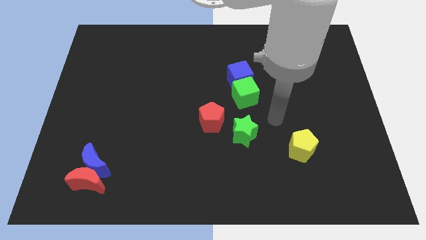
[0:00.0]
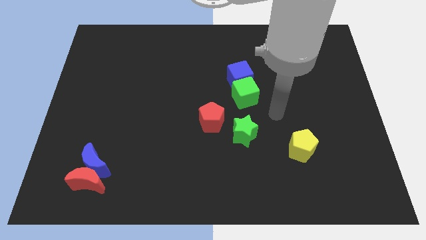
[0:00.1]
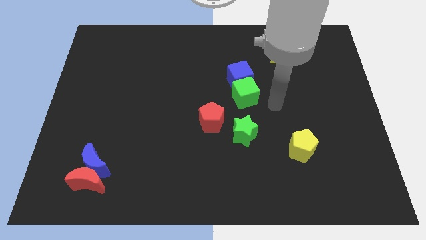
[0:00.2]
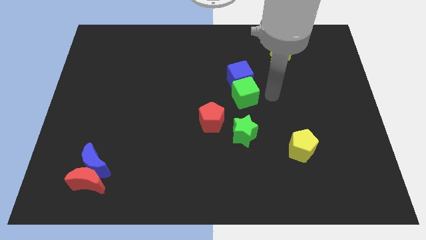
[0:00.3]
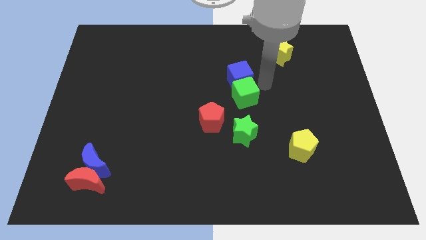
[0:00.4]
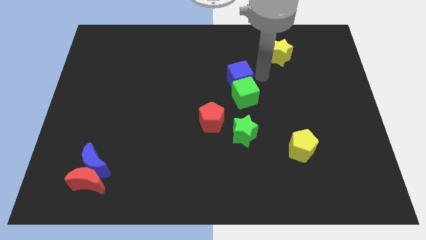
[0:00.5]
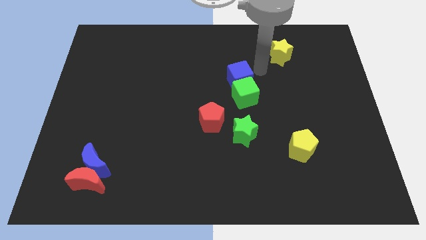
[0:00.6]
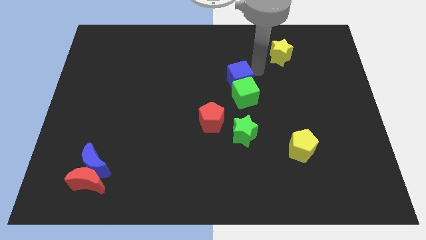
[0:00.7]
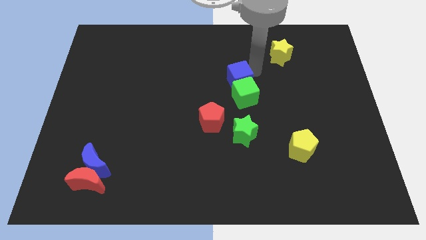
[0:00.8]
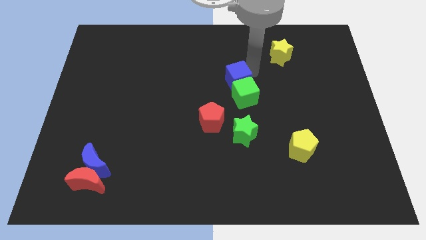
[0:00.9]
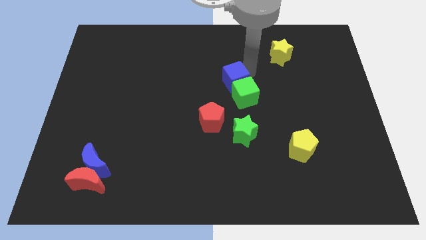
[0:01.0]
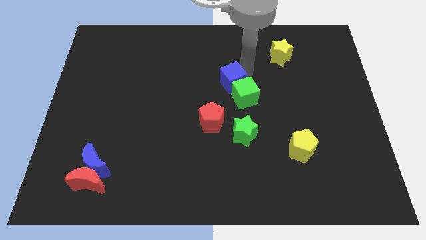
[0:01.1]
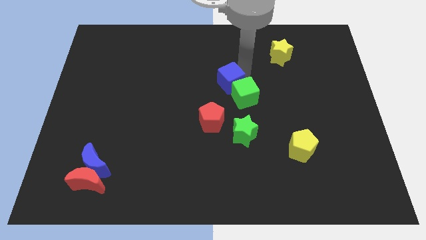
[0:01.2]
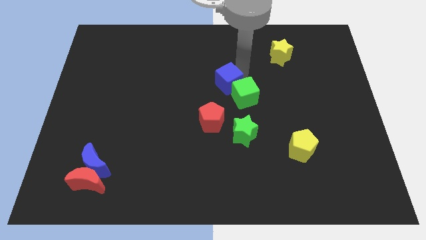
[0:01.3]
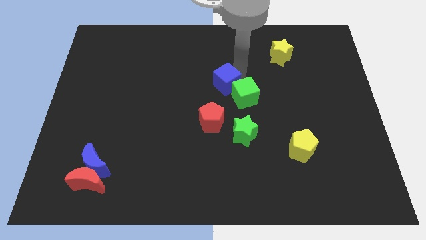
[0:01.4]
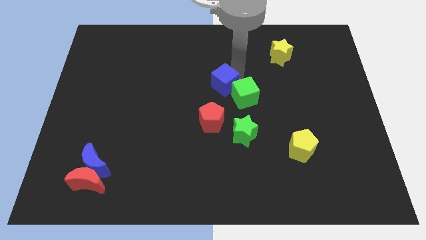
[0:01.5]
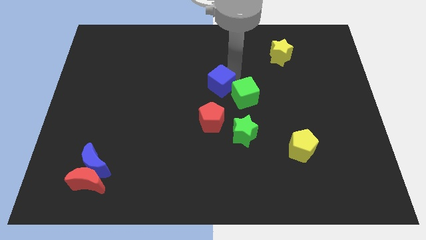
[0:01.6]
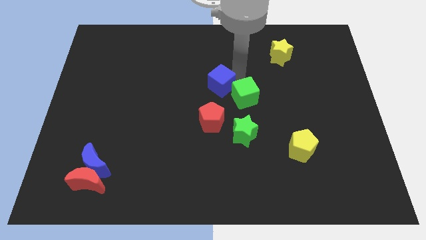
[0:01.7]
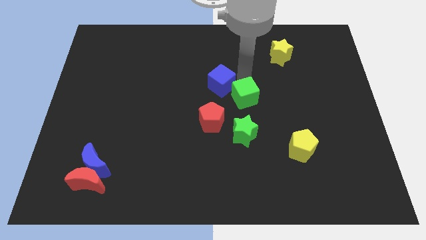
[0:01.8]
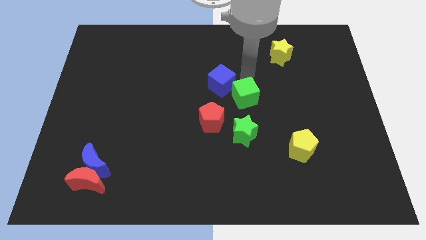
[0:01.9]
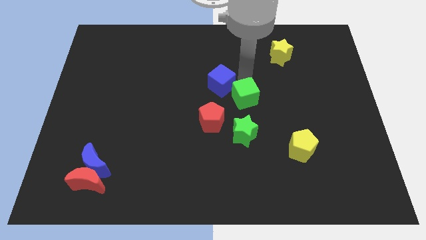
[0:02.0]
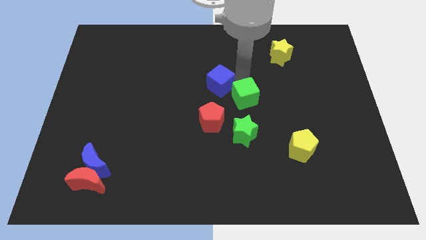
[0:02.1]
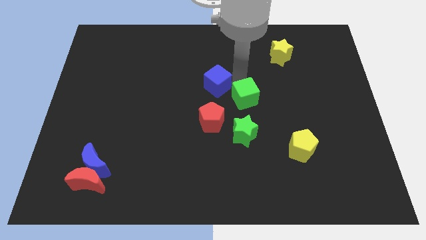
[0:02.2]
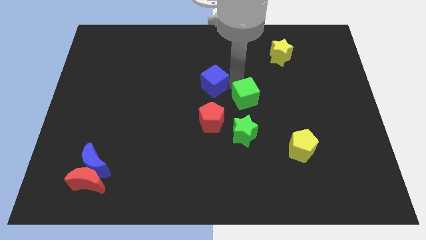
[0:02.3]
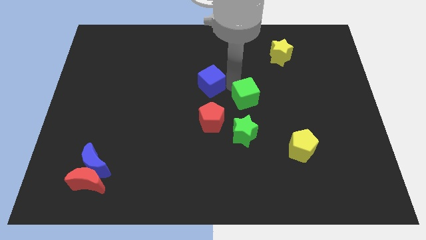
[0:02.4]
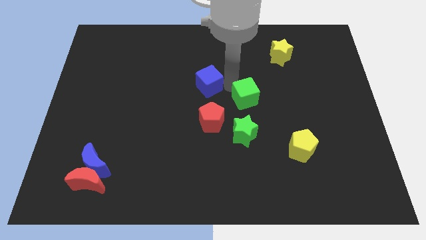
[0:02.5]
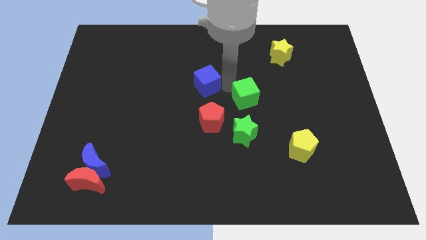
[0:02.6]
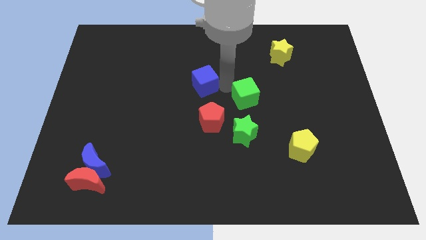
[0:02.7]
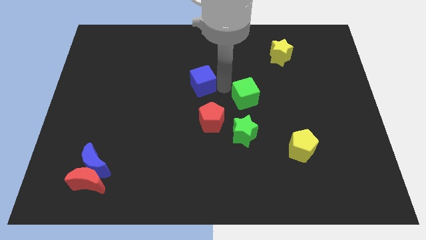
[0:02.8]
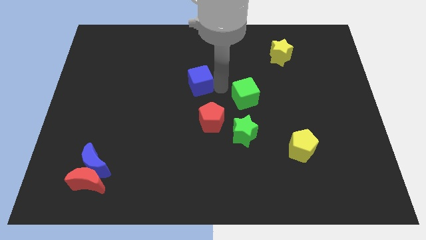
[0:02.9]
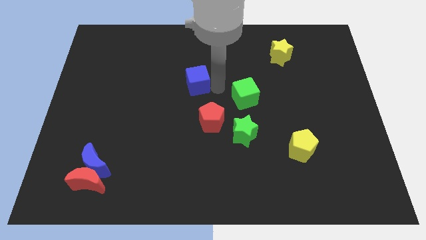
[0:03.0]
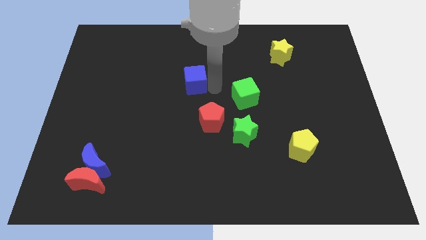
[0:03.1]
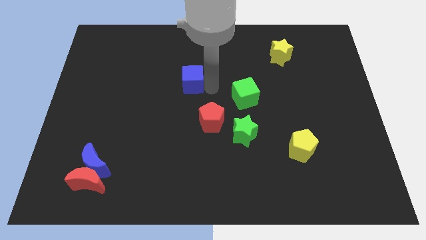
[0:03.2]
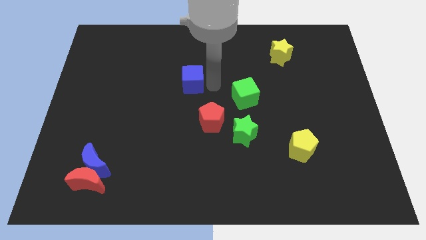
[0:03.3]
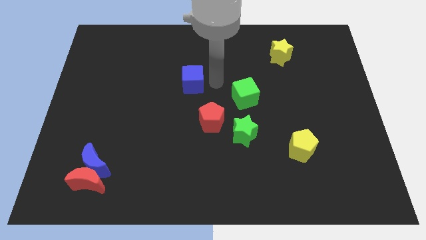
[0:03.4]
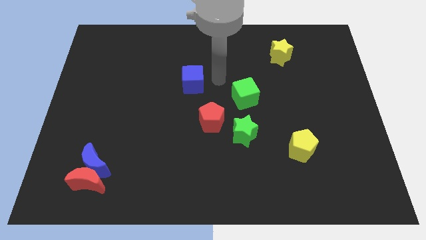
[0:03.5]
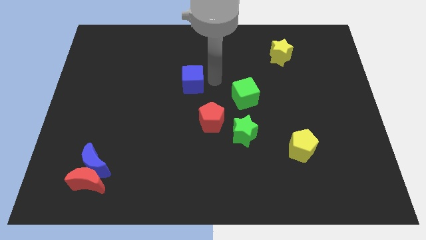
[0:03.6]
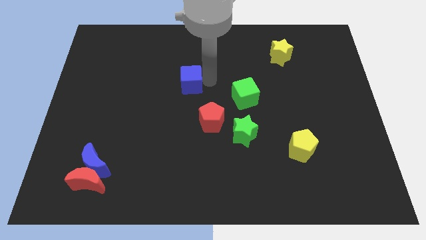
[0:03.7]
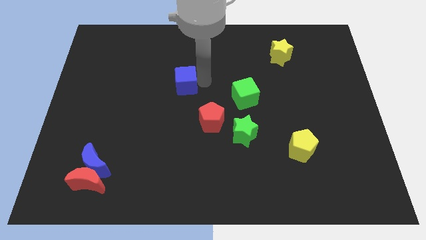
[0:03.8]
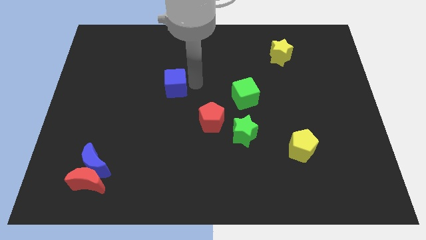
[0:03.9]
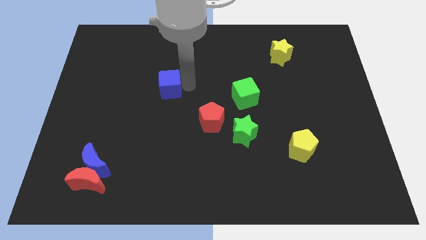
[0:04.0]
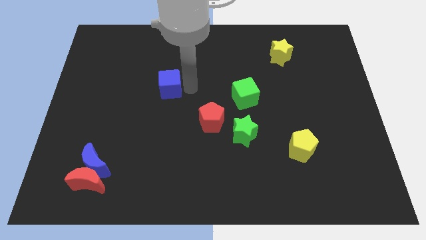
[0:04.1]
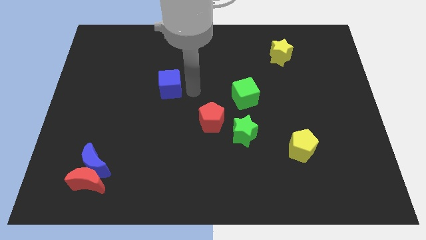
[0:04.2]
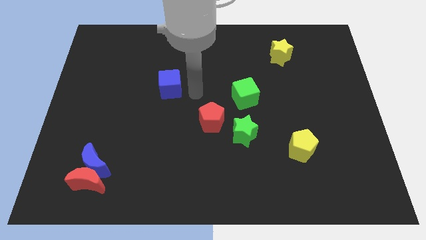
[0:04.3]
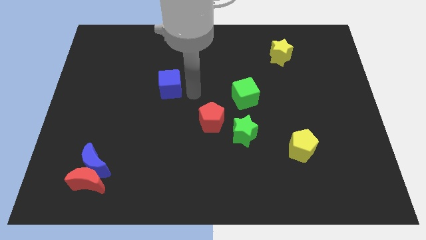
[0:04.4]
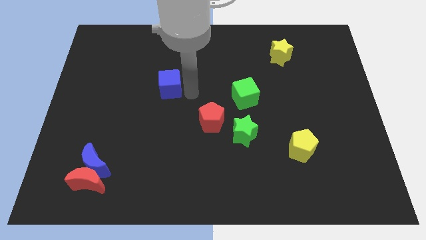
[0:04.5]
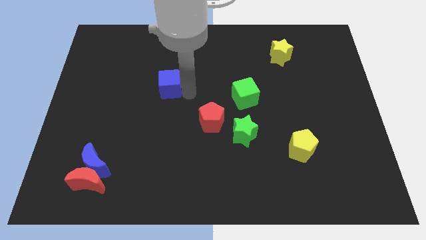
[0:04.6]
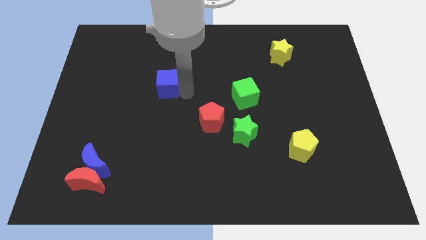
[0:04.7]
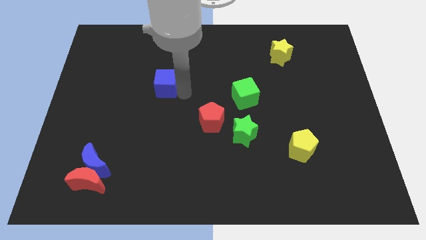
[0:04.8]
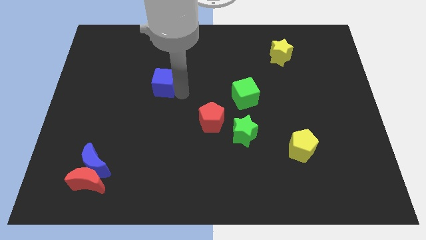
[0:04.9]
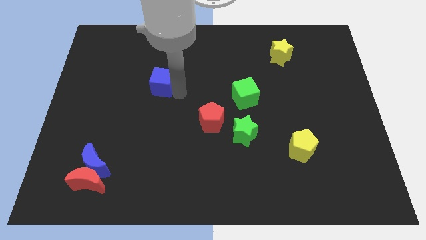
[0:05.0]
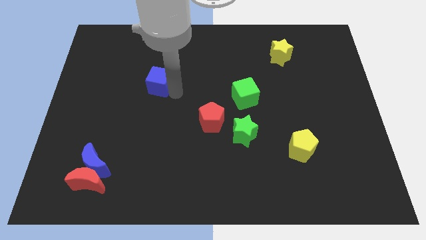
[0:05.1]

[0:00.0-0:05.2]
push the blue cube left

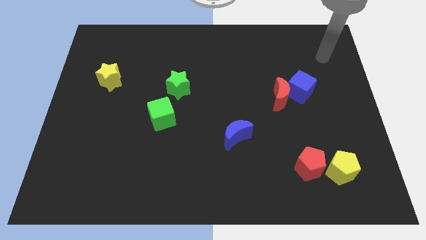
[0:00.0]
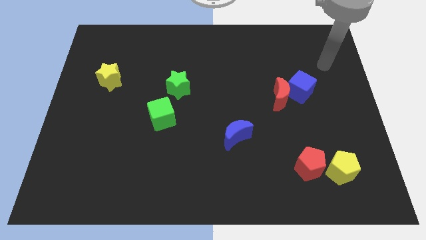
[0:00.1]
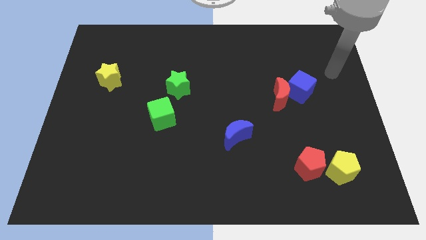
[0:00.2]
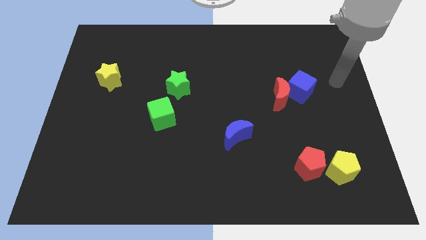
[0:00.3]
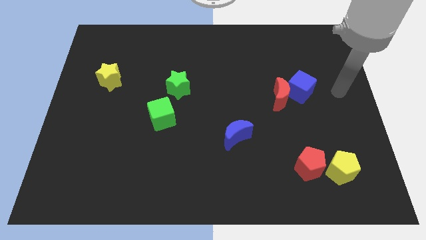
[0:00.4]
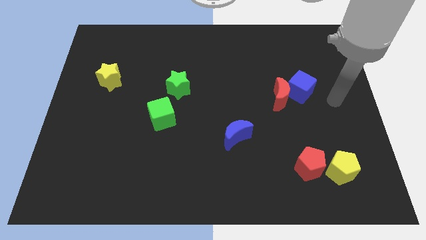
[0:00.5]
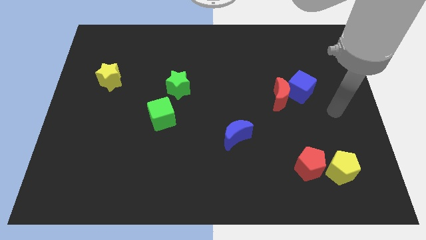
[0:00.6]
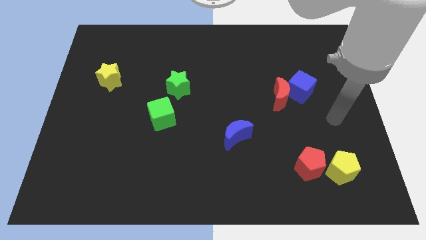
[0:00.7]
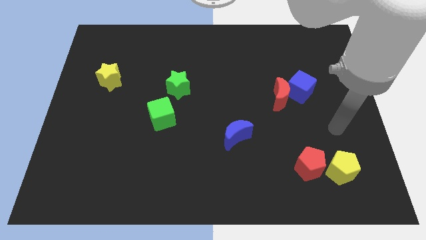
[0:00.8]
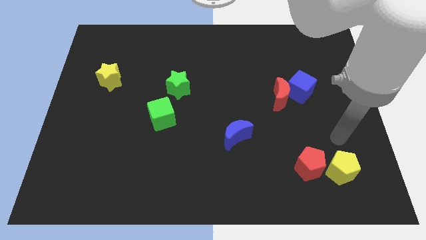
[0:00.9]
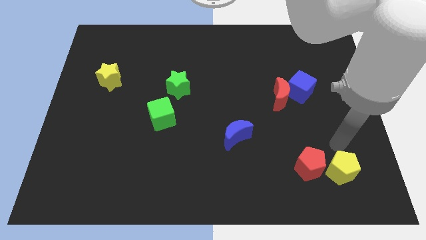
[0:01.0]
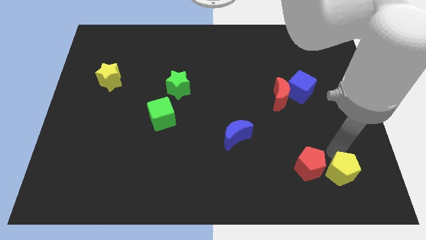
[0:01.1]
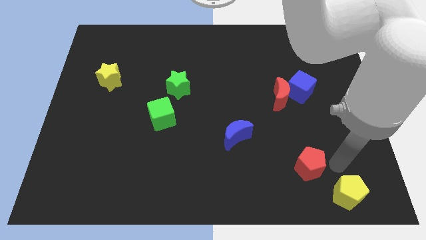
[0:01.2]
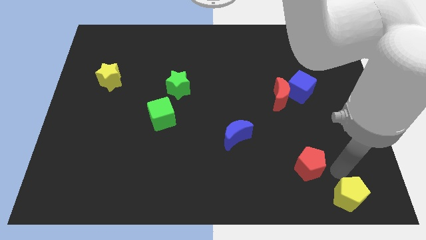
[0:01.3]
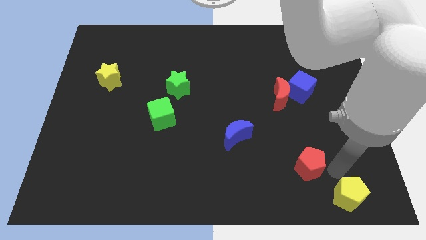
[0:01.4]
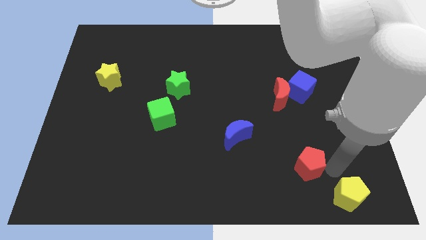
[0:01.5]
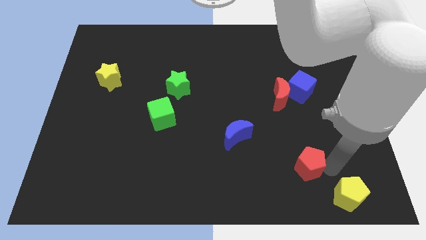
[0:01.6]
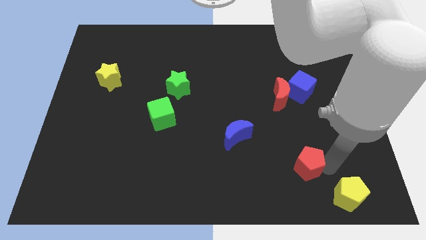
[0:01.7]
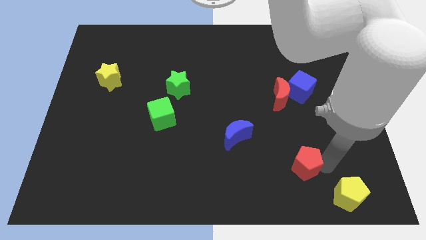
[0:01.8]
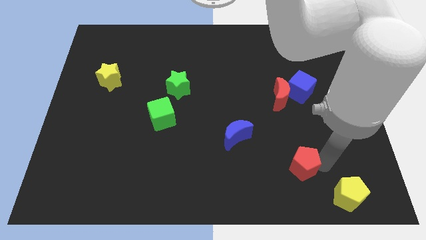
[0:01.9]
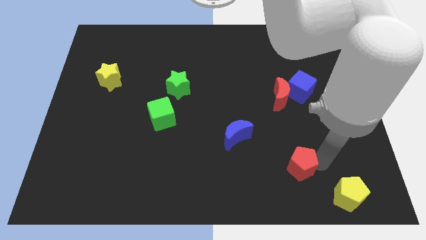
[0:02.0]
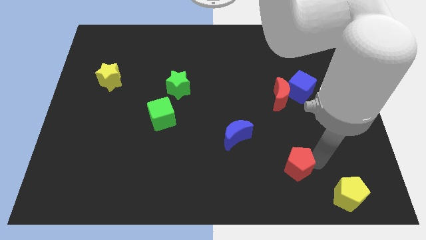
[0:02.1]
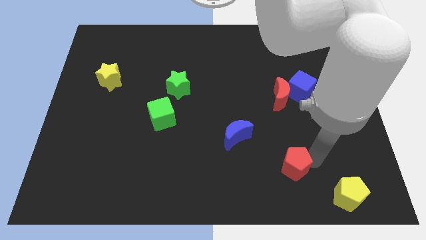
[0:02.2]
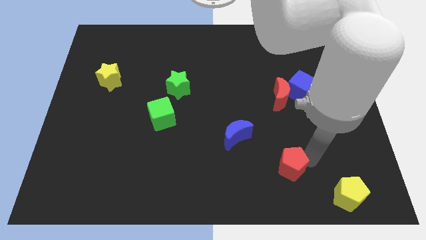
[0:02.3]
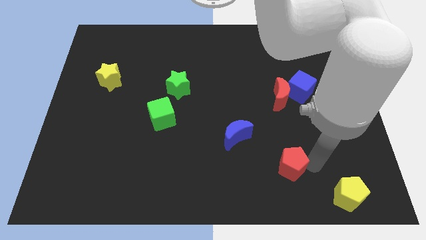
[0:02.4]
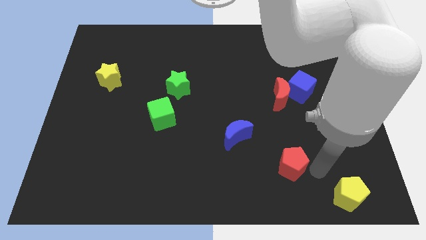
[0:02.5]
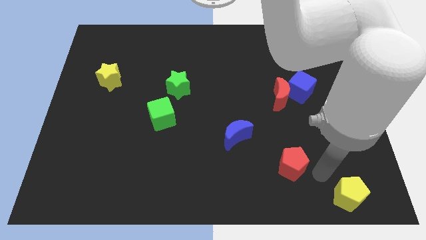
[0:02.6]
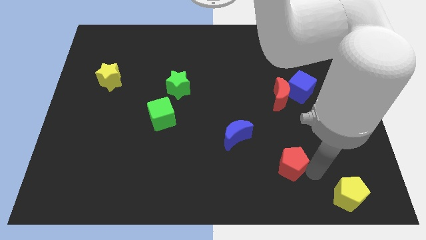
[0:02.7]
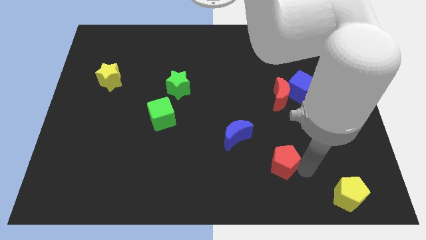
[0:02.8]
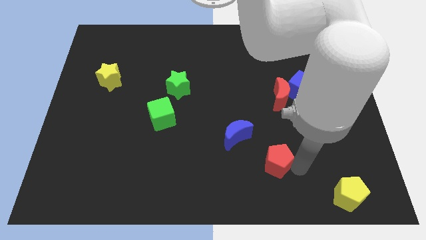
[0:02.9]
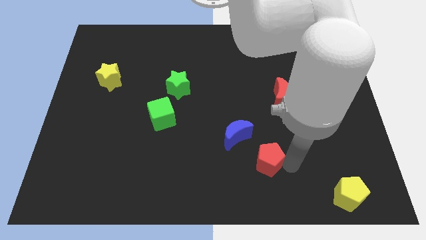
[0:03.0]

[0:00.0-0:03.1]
slide the red pentagon to the left a bit
